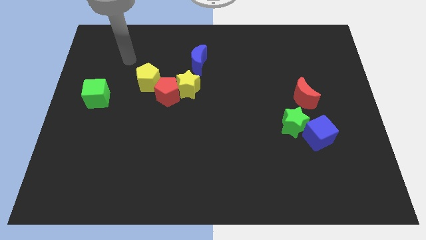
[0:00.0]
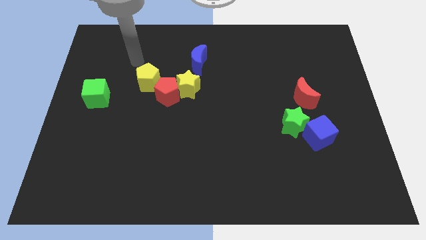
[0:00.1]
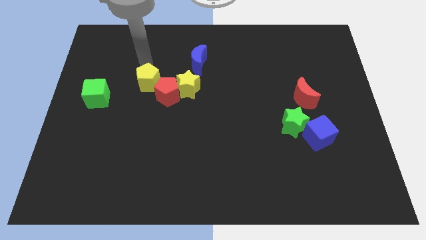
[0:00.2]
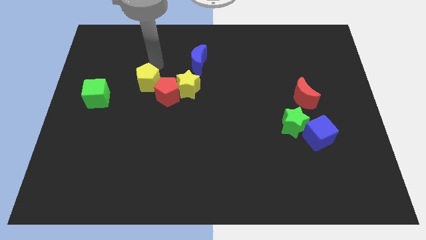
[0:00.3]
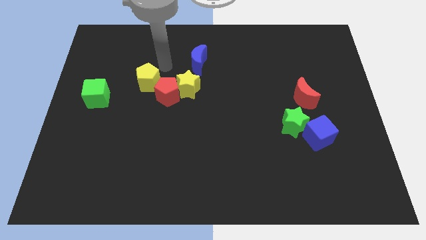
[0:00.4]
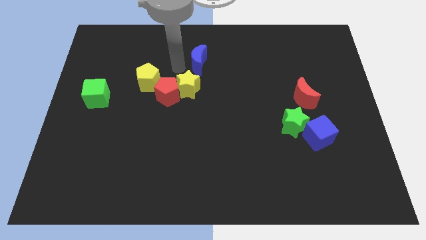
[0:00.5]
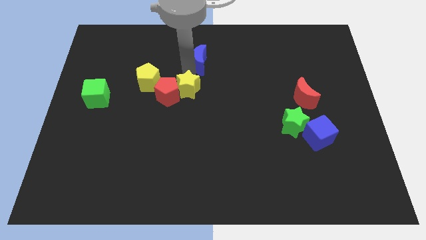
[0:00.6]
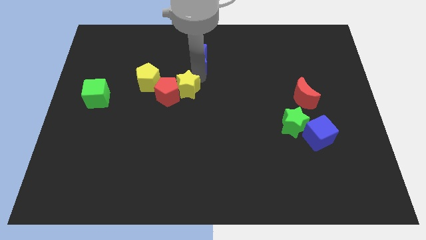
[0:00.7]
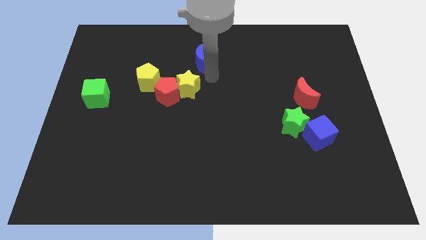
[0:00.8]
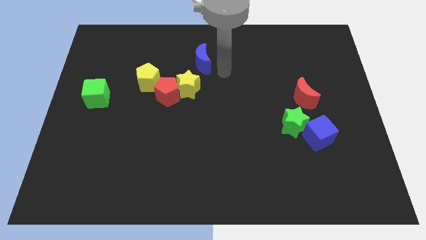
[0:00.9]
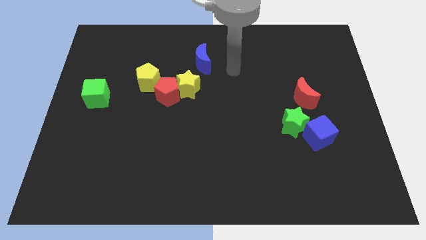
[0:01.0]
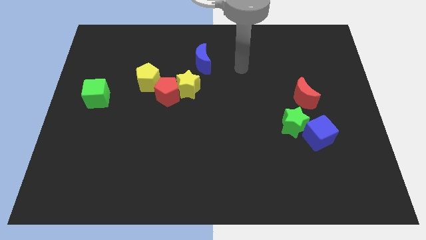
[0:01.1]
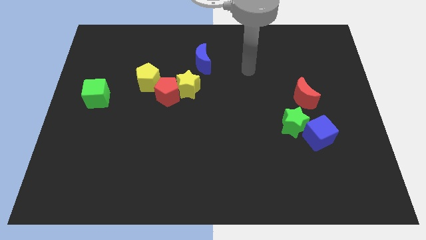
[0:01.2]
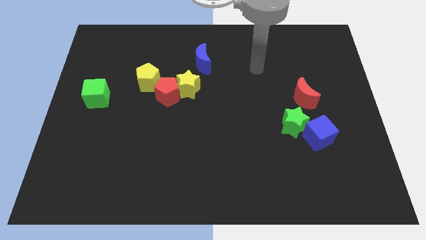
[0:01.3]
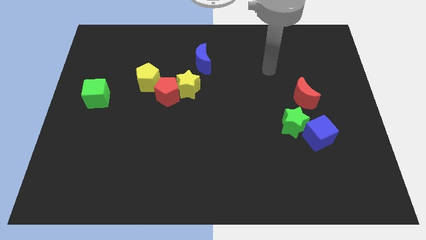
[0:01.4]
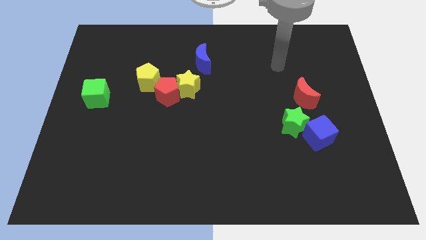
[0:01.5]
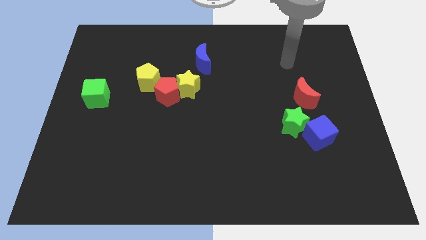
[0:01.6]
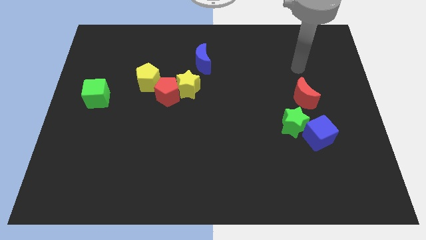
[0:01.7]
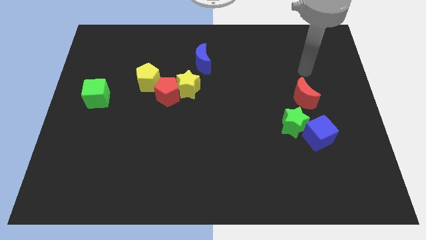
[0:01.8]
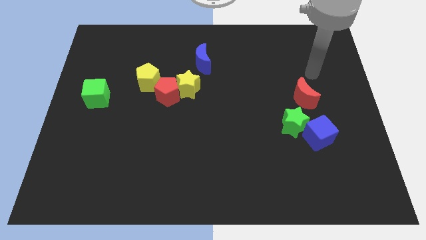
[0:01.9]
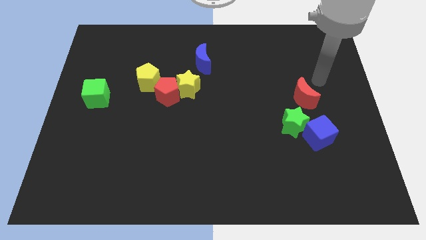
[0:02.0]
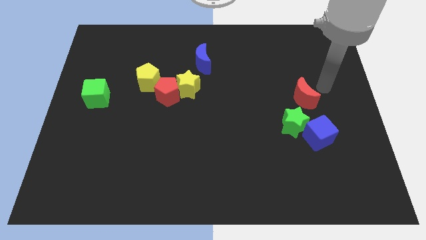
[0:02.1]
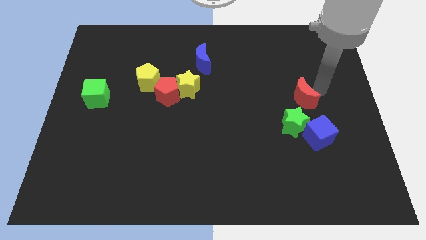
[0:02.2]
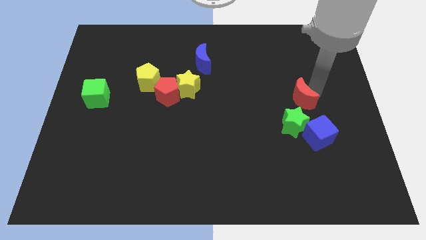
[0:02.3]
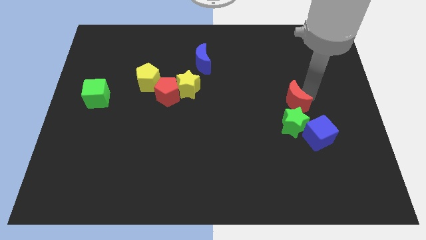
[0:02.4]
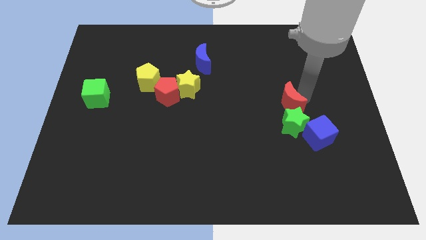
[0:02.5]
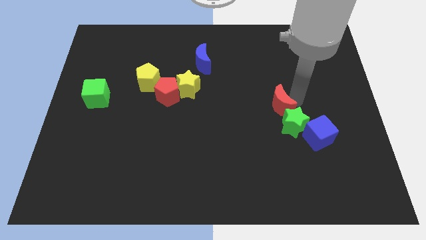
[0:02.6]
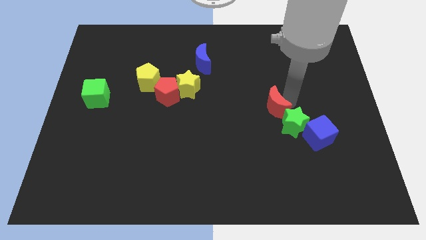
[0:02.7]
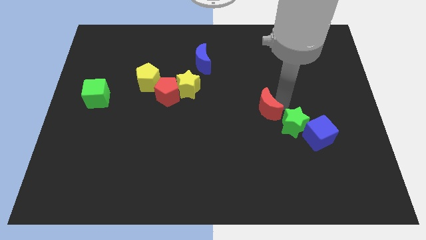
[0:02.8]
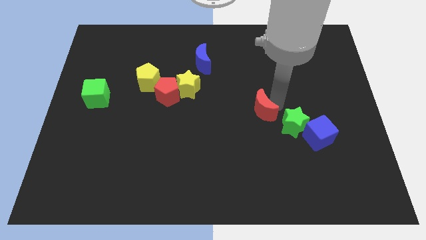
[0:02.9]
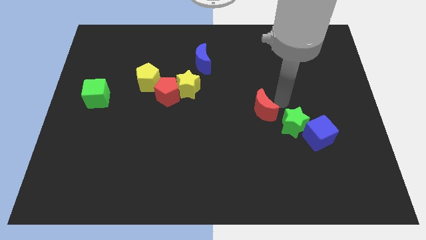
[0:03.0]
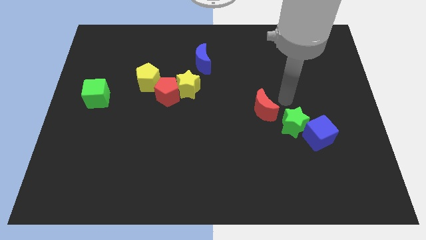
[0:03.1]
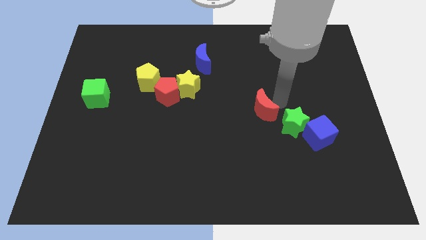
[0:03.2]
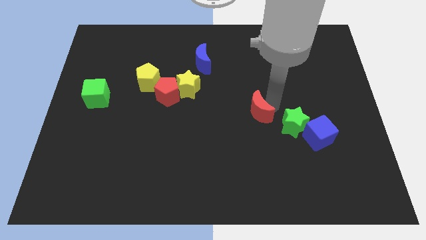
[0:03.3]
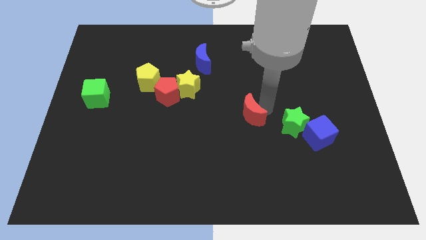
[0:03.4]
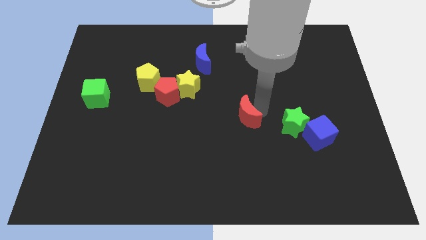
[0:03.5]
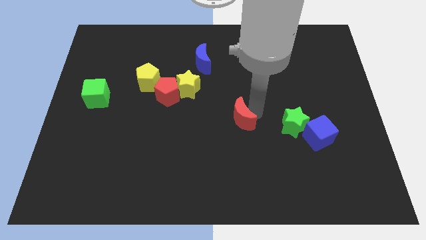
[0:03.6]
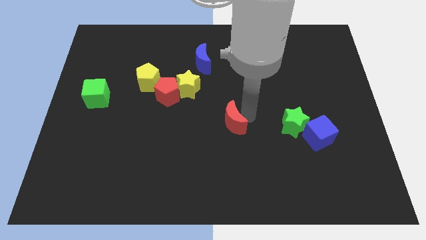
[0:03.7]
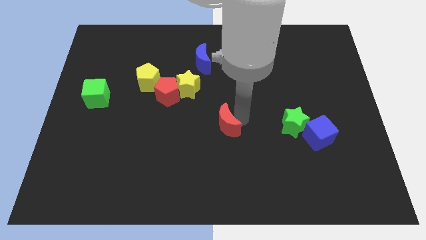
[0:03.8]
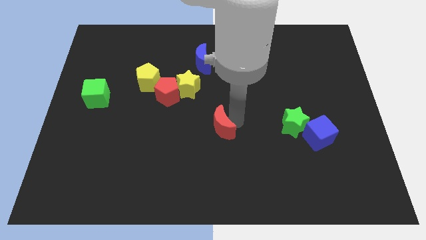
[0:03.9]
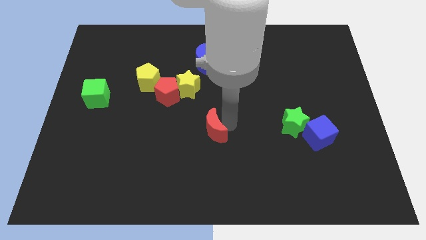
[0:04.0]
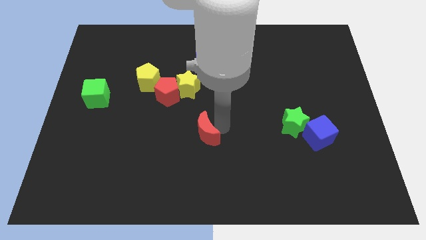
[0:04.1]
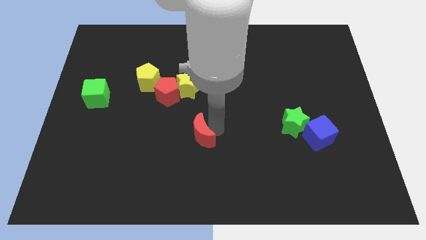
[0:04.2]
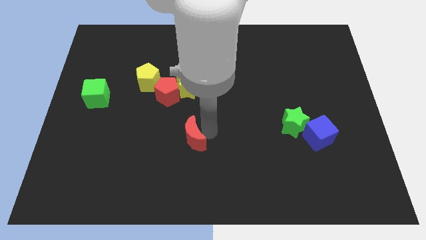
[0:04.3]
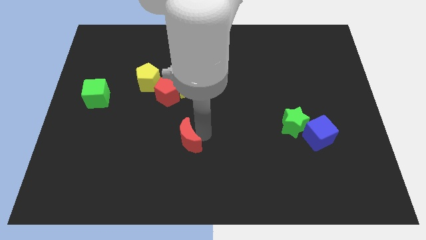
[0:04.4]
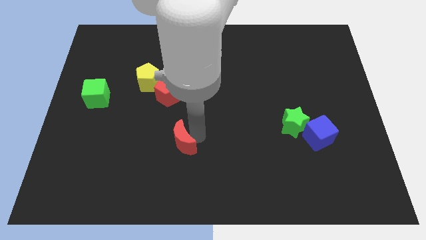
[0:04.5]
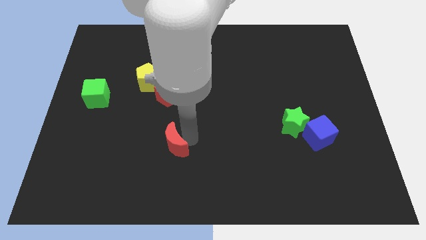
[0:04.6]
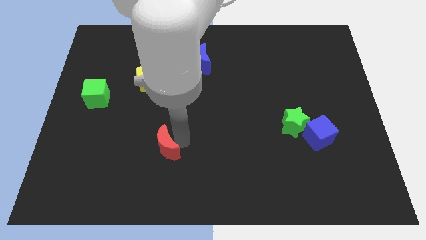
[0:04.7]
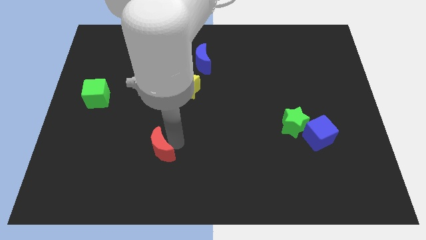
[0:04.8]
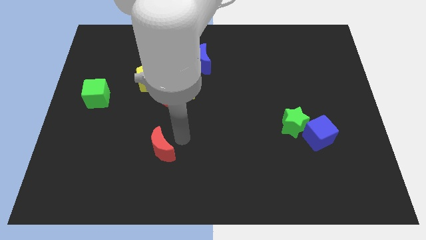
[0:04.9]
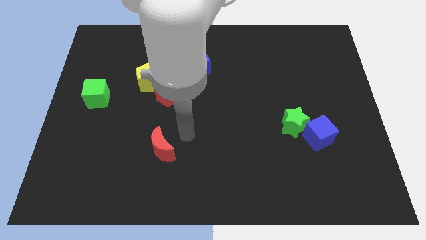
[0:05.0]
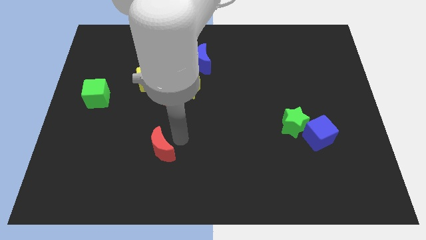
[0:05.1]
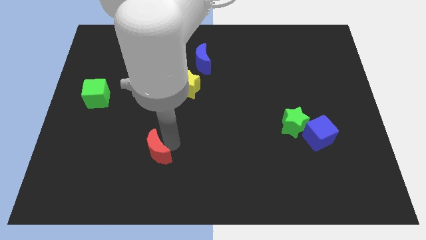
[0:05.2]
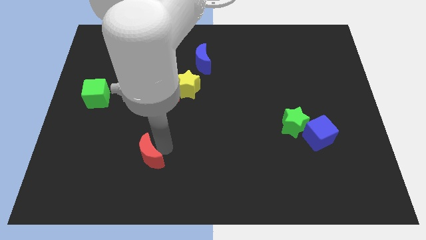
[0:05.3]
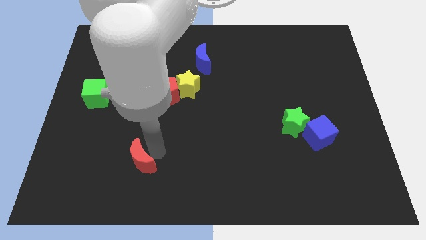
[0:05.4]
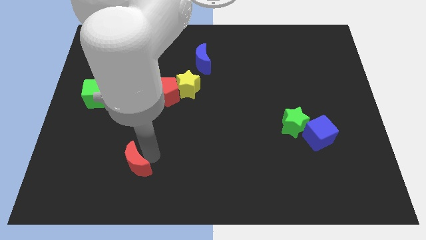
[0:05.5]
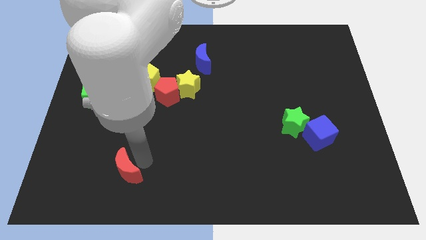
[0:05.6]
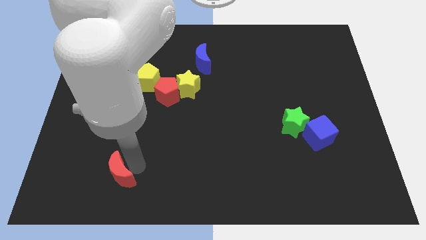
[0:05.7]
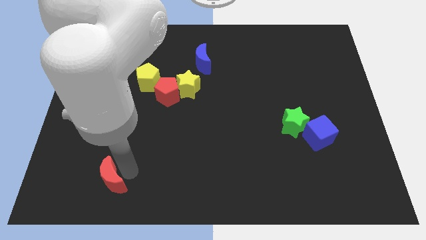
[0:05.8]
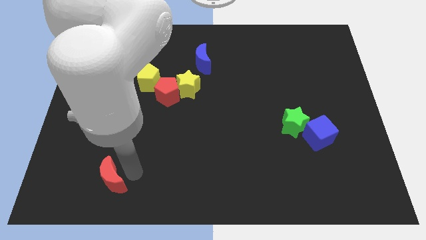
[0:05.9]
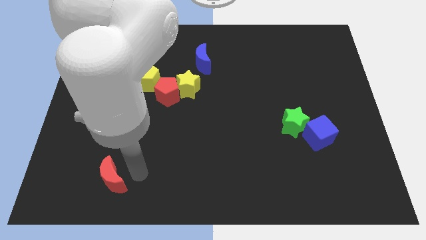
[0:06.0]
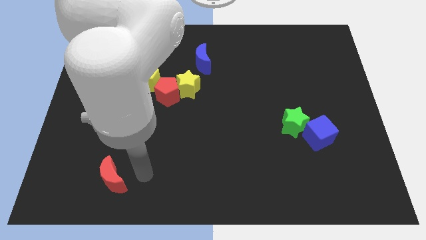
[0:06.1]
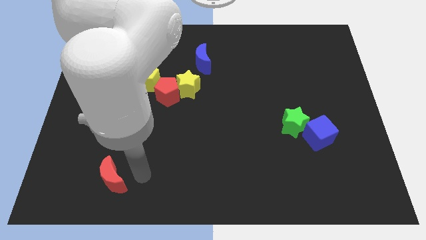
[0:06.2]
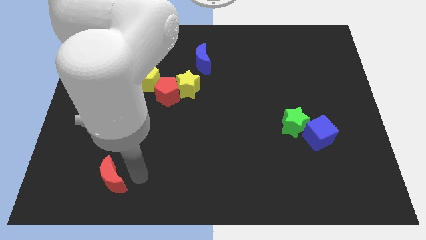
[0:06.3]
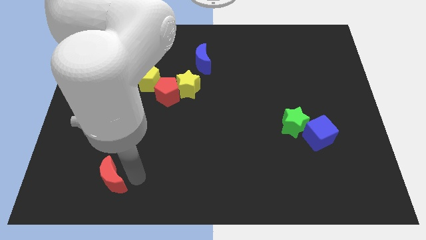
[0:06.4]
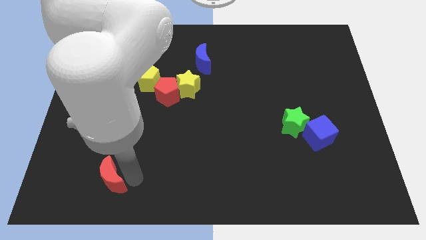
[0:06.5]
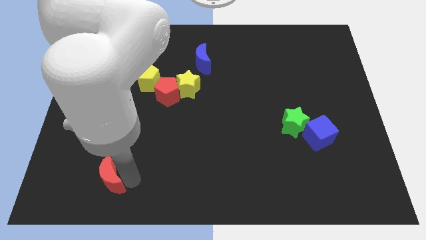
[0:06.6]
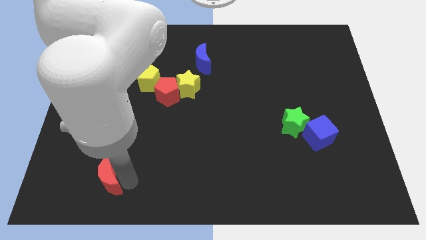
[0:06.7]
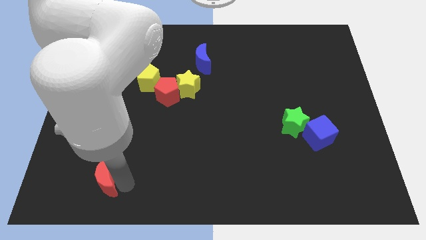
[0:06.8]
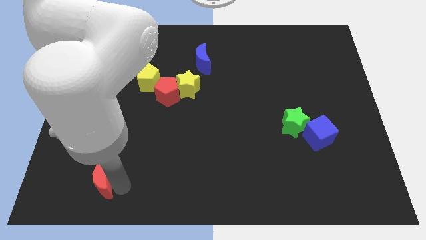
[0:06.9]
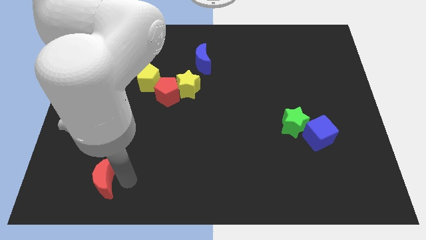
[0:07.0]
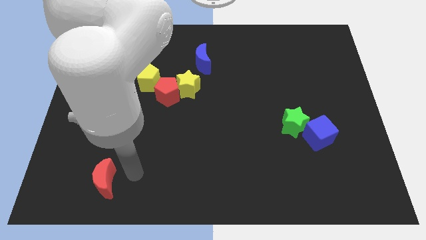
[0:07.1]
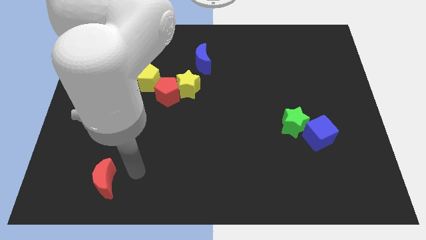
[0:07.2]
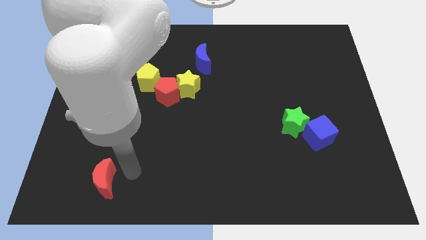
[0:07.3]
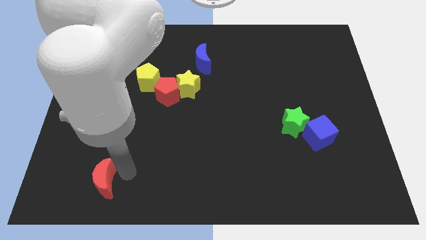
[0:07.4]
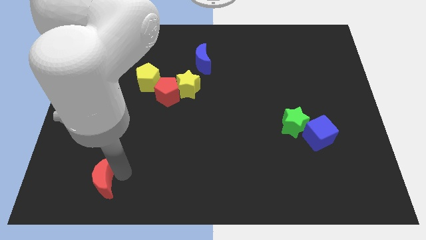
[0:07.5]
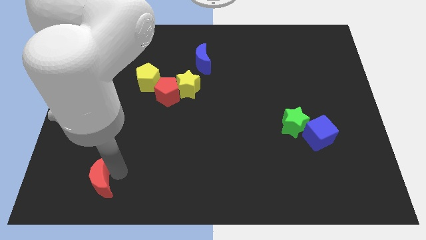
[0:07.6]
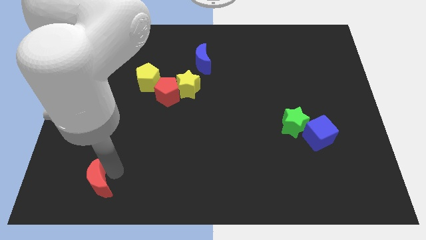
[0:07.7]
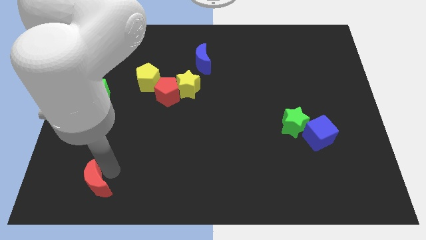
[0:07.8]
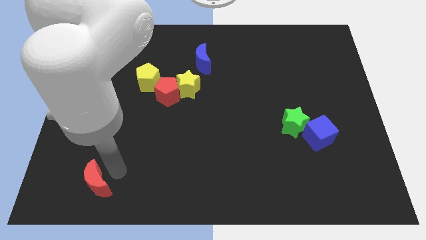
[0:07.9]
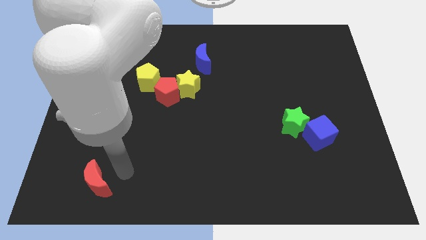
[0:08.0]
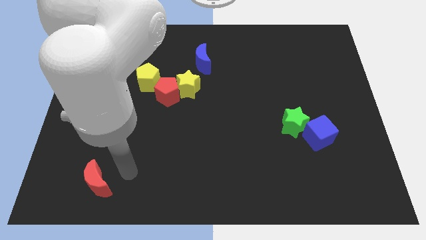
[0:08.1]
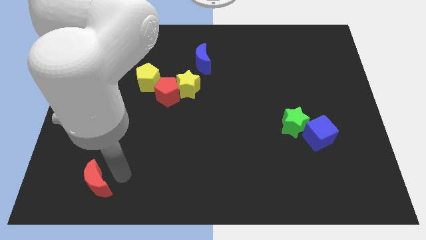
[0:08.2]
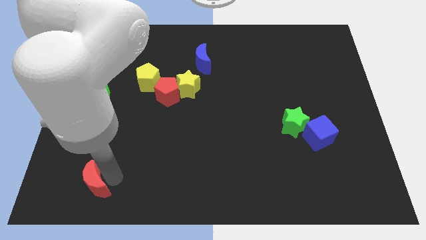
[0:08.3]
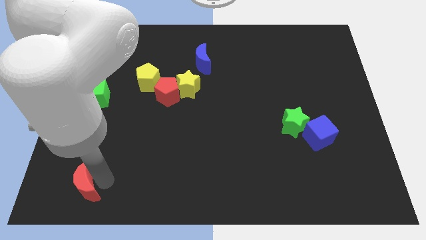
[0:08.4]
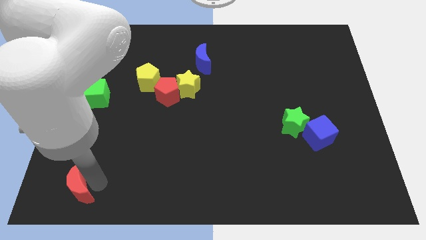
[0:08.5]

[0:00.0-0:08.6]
push the red moon to the lower left corner
